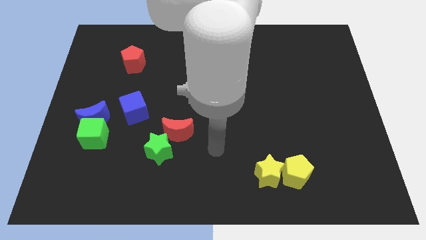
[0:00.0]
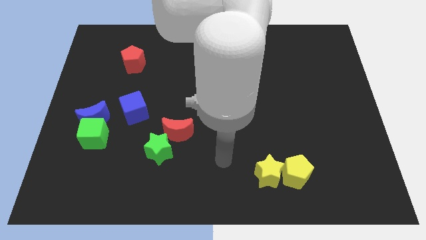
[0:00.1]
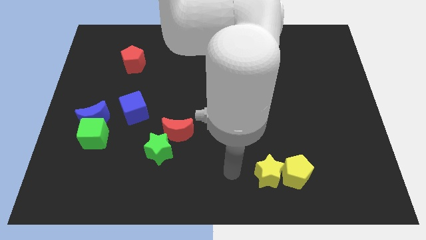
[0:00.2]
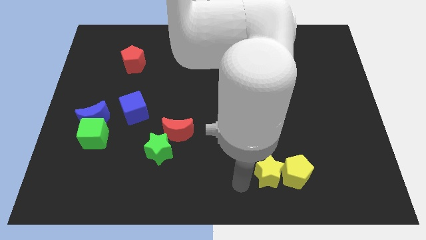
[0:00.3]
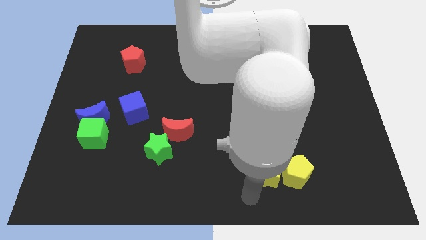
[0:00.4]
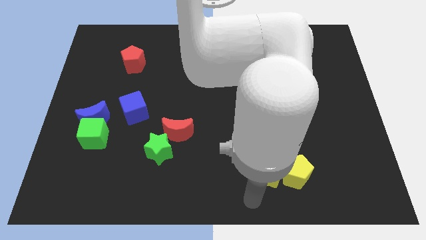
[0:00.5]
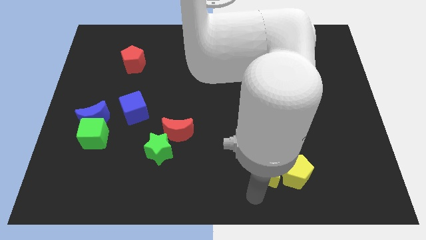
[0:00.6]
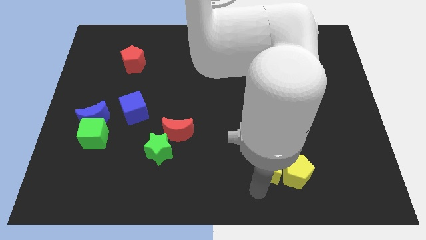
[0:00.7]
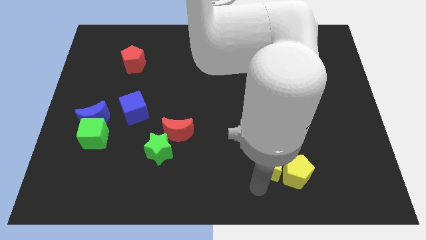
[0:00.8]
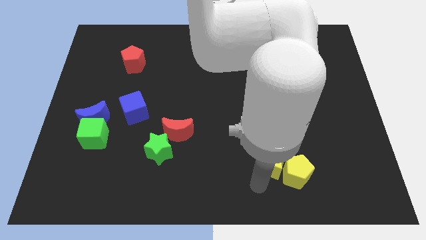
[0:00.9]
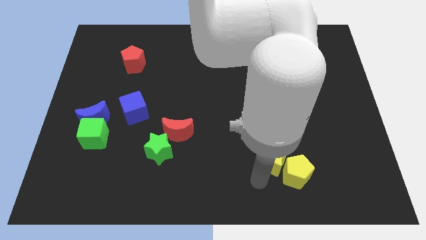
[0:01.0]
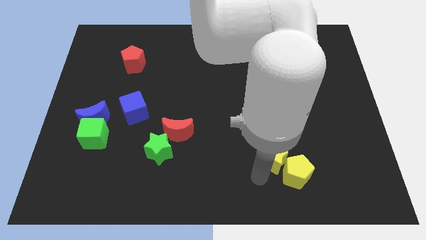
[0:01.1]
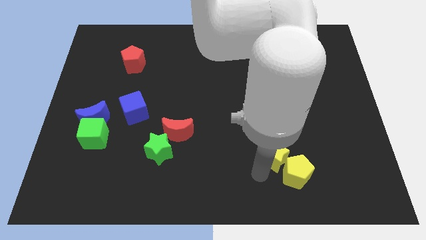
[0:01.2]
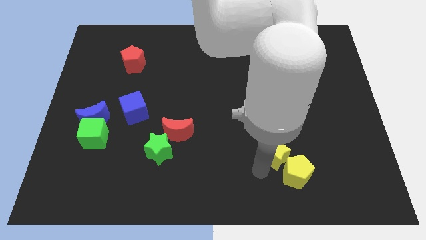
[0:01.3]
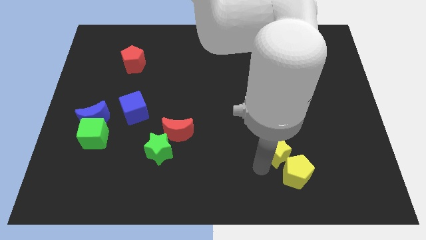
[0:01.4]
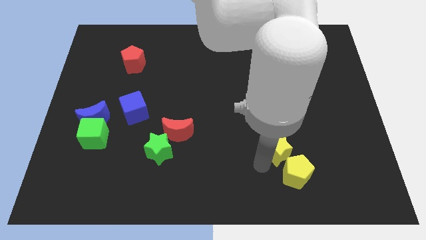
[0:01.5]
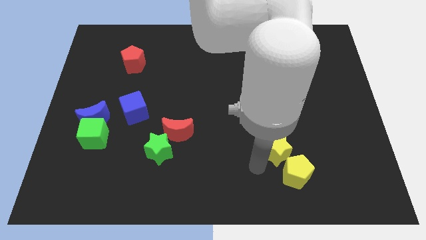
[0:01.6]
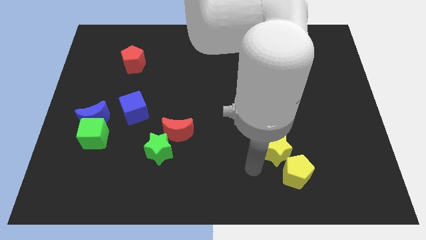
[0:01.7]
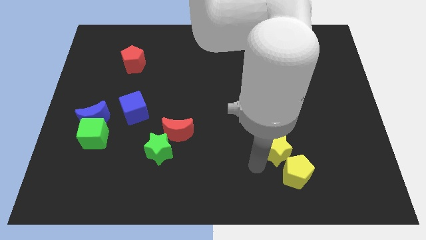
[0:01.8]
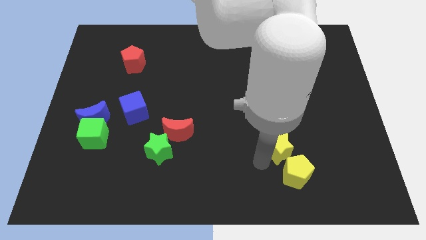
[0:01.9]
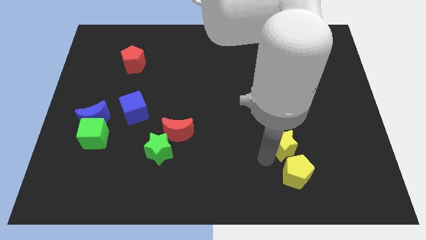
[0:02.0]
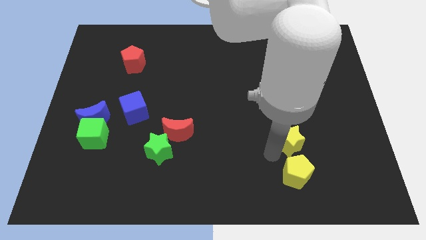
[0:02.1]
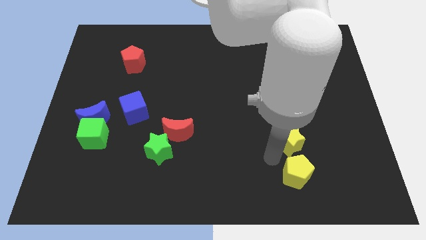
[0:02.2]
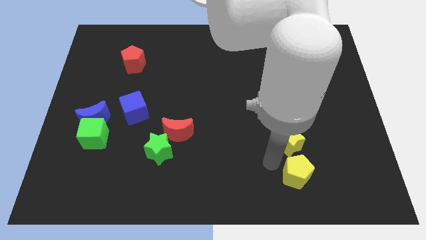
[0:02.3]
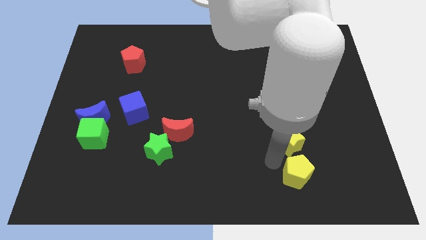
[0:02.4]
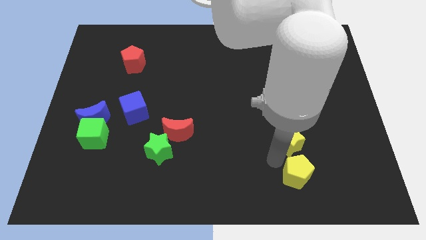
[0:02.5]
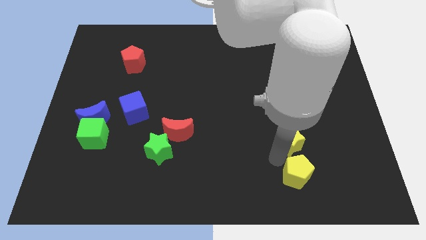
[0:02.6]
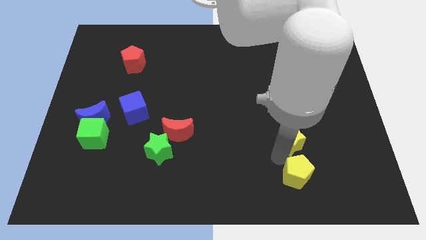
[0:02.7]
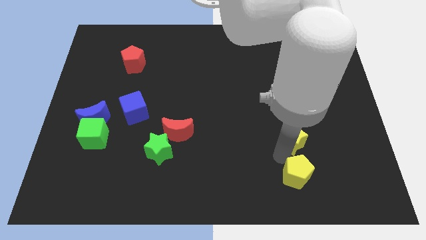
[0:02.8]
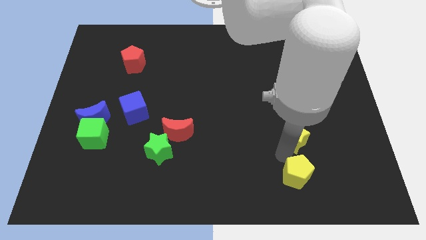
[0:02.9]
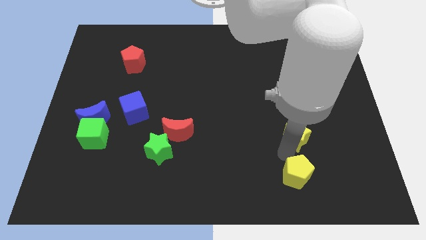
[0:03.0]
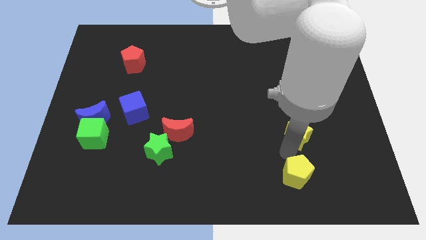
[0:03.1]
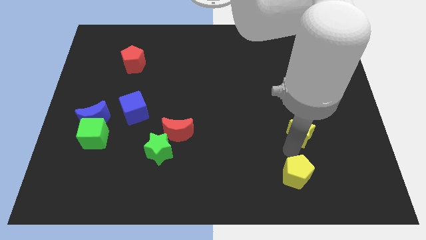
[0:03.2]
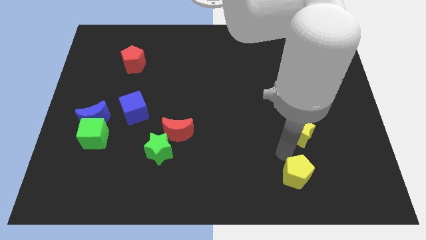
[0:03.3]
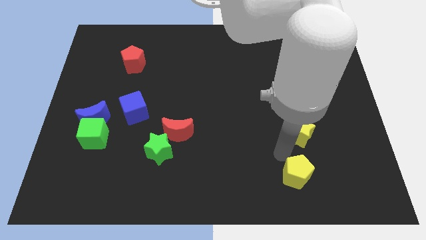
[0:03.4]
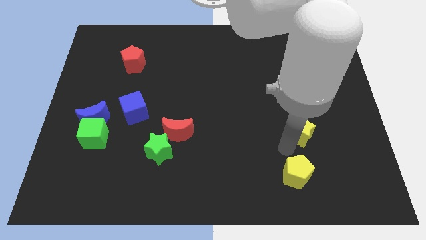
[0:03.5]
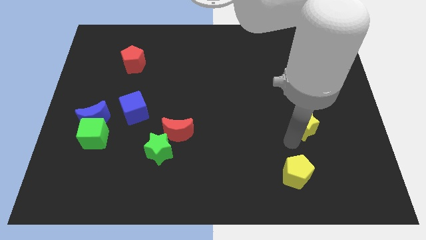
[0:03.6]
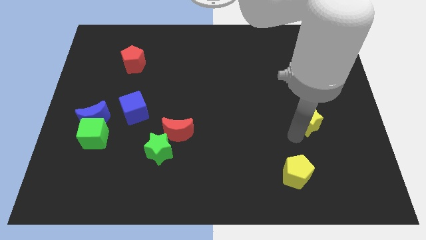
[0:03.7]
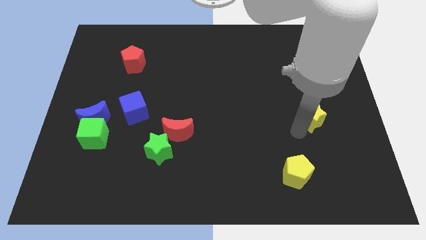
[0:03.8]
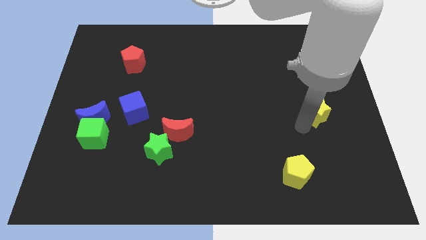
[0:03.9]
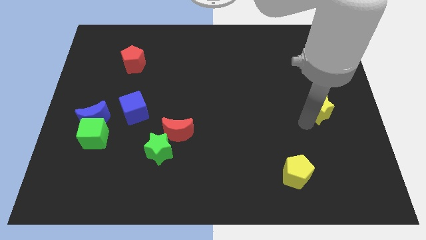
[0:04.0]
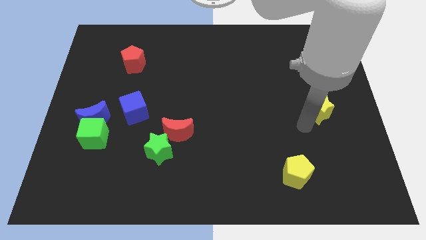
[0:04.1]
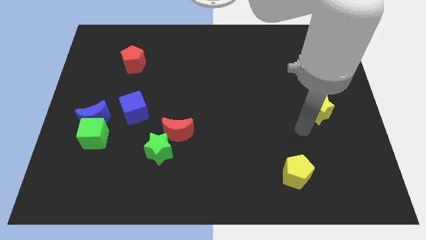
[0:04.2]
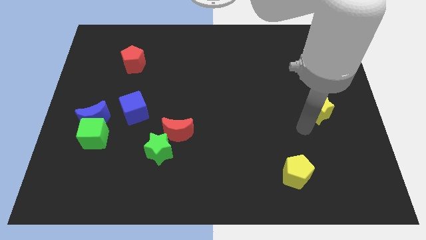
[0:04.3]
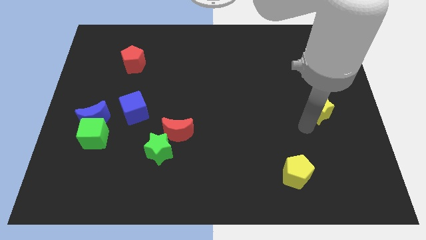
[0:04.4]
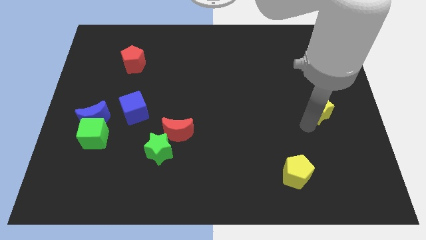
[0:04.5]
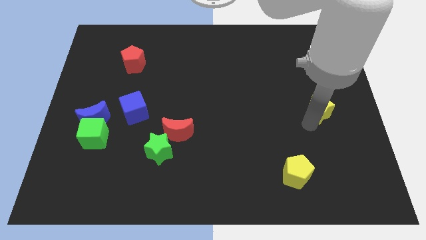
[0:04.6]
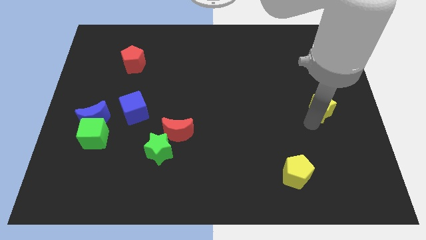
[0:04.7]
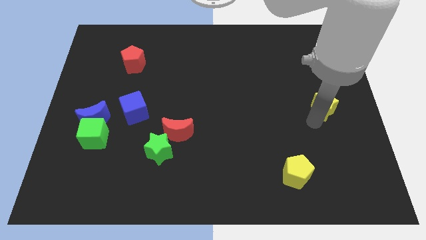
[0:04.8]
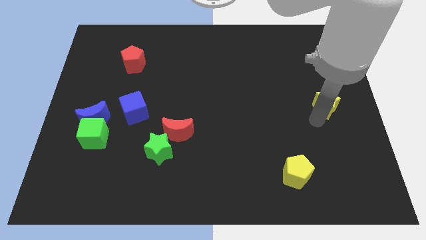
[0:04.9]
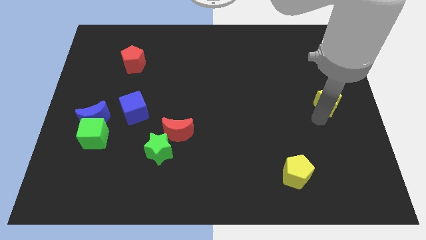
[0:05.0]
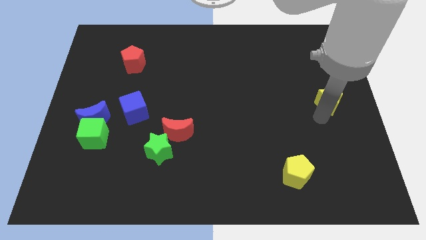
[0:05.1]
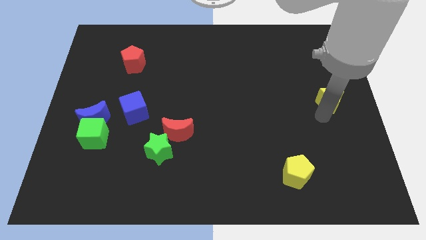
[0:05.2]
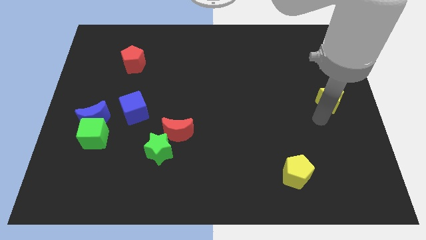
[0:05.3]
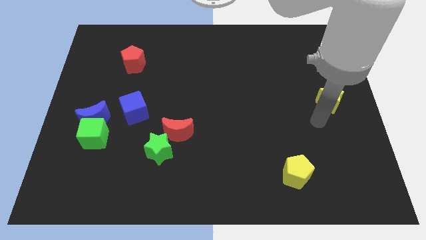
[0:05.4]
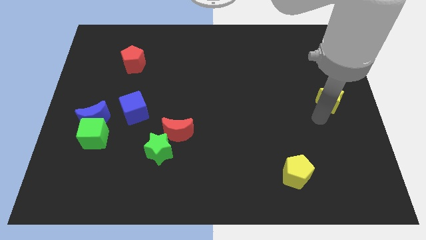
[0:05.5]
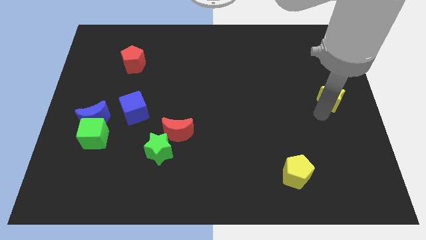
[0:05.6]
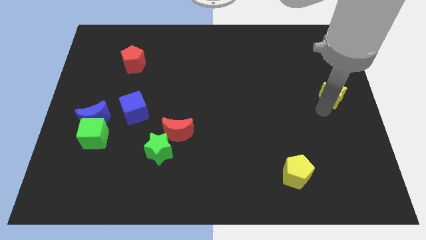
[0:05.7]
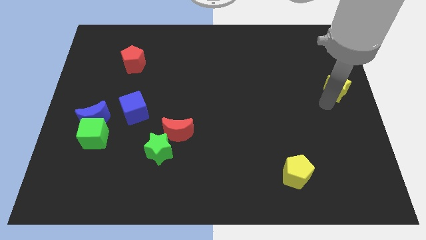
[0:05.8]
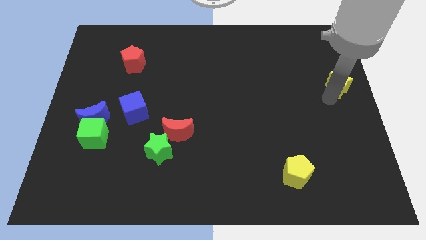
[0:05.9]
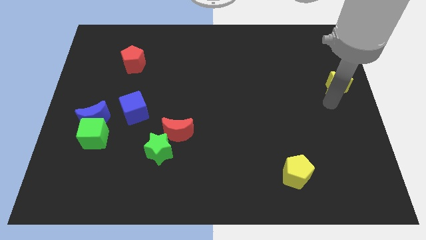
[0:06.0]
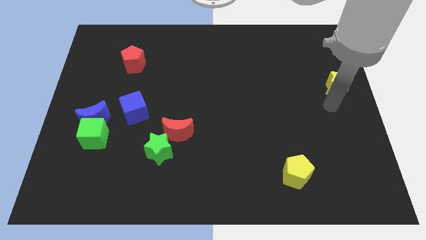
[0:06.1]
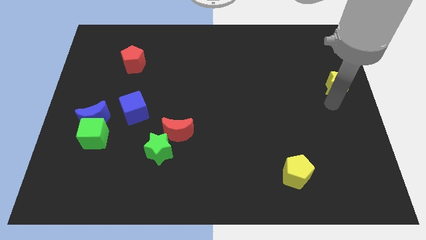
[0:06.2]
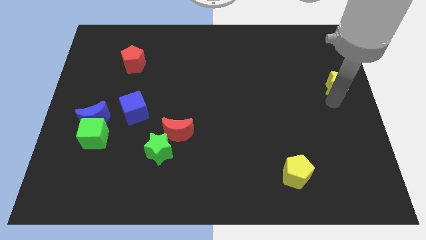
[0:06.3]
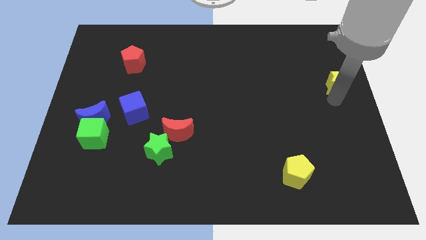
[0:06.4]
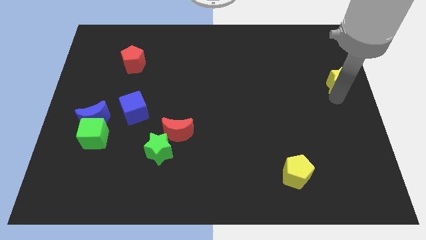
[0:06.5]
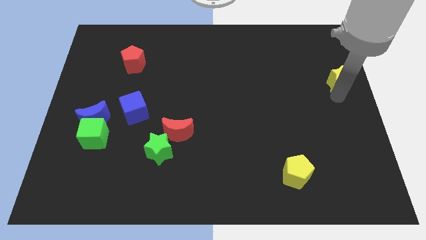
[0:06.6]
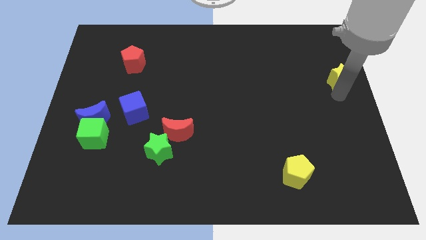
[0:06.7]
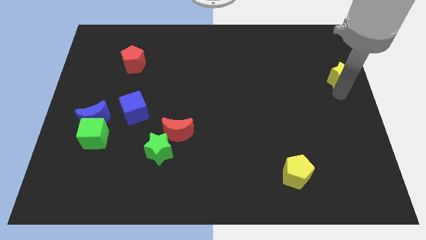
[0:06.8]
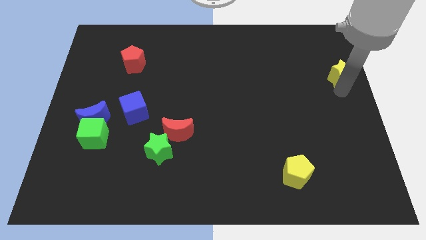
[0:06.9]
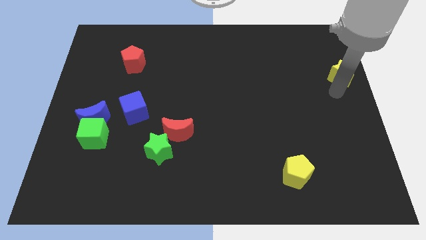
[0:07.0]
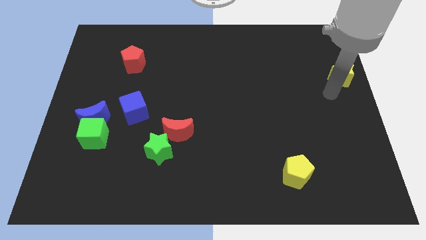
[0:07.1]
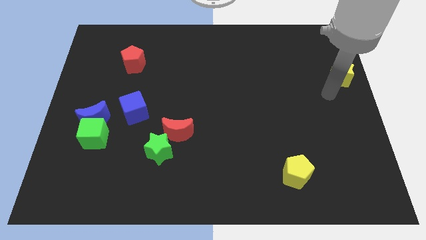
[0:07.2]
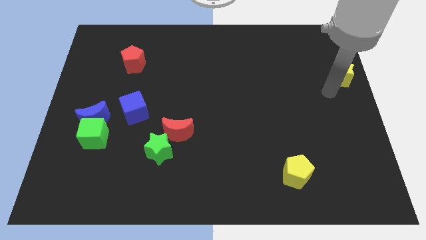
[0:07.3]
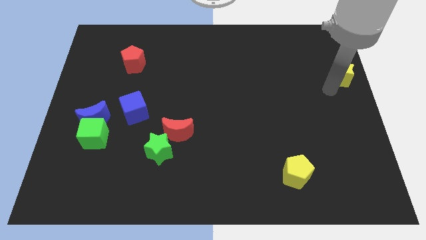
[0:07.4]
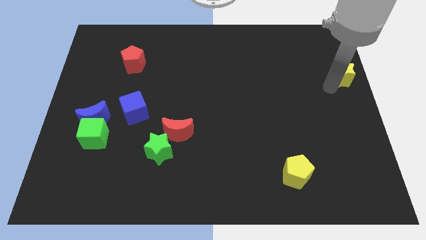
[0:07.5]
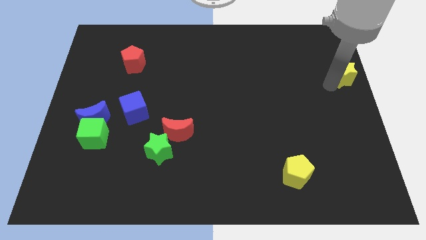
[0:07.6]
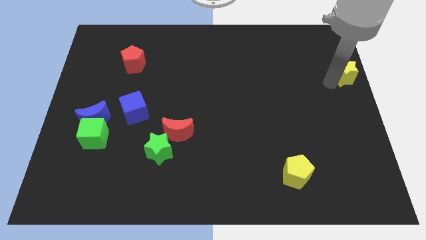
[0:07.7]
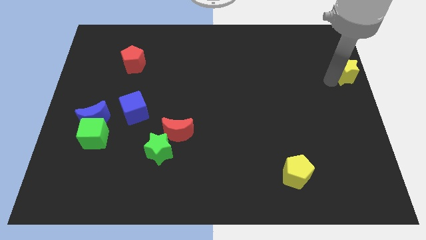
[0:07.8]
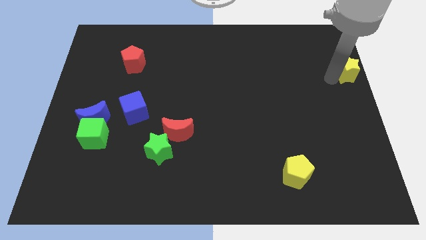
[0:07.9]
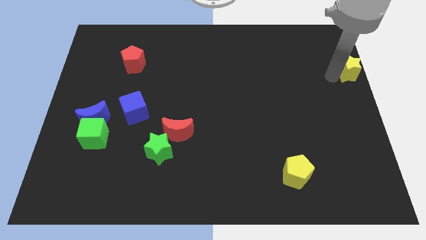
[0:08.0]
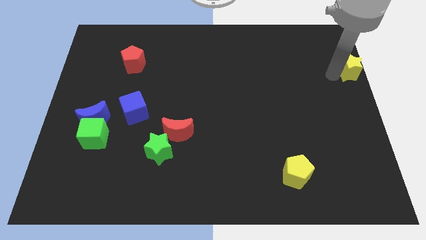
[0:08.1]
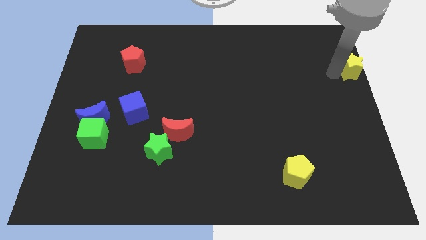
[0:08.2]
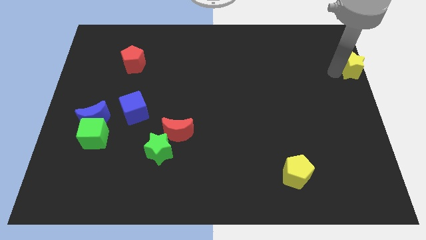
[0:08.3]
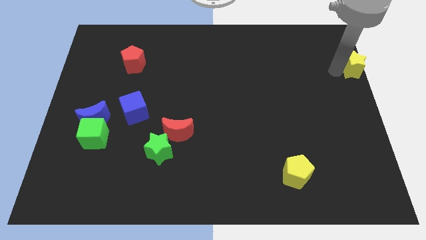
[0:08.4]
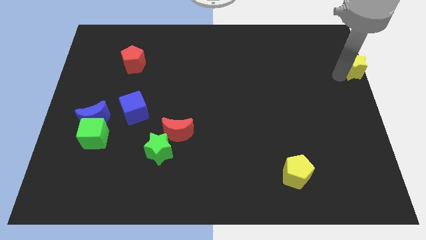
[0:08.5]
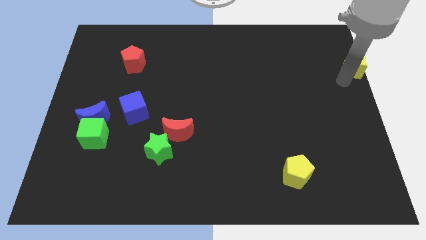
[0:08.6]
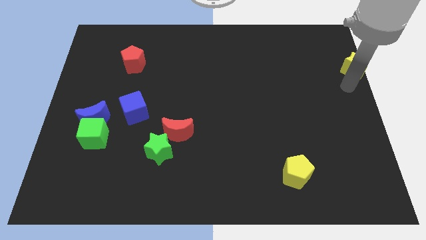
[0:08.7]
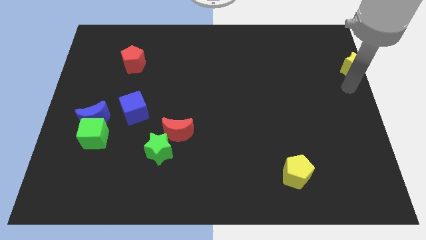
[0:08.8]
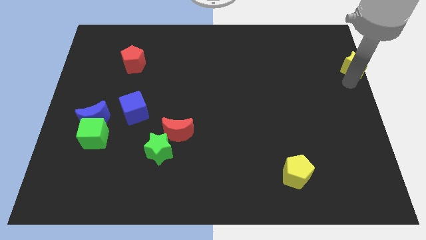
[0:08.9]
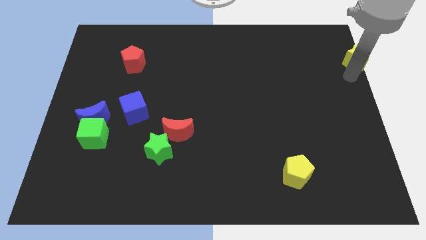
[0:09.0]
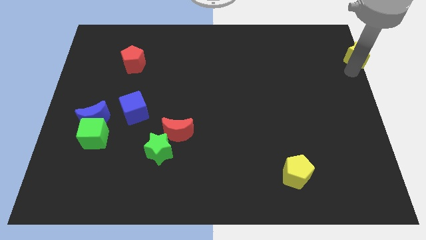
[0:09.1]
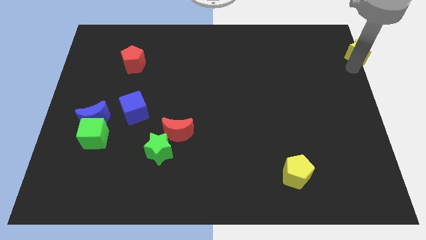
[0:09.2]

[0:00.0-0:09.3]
put the yellow star to the top right
